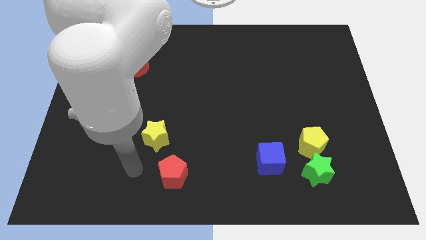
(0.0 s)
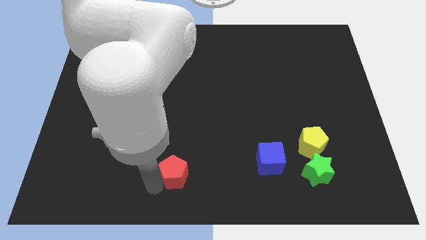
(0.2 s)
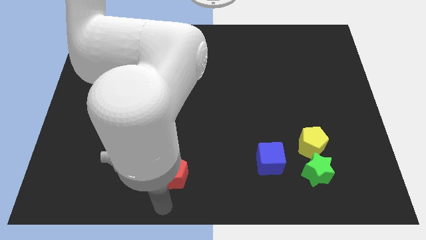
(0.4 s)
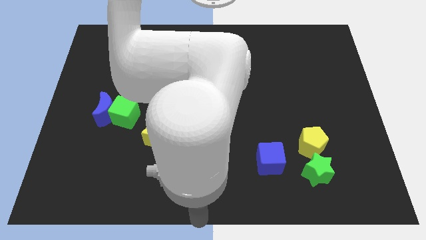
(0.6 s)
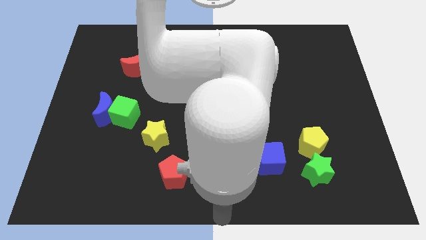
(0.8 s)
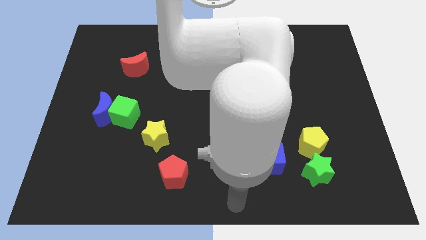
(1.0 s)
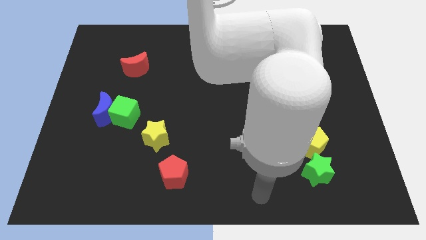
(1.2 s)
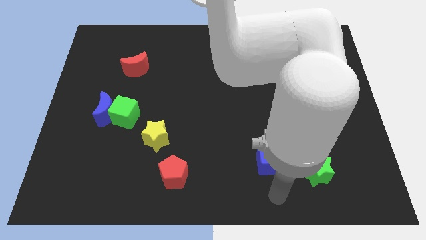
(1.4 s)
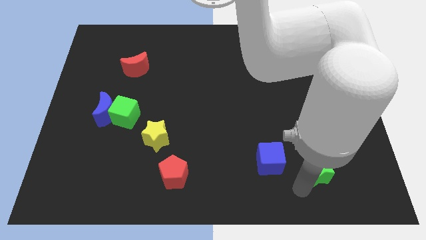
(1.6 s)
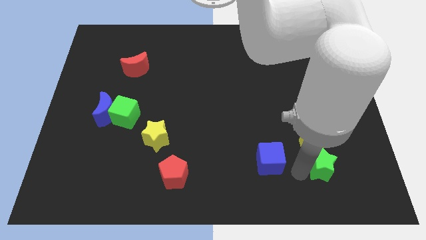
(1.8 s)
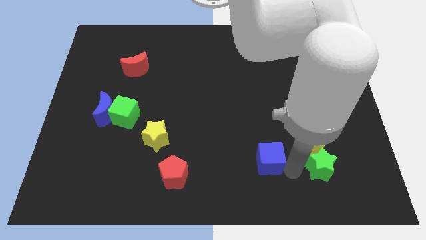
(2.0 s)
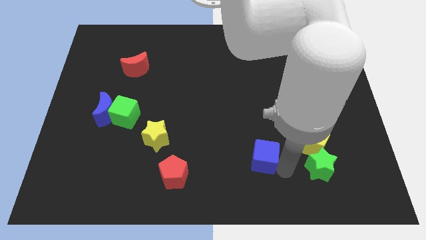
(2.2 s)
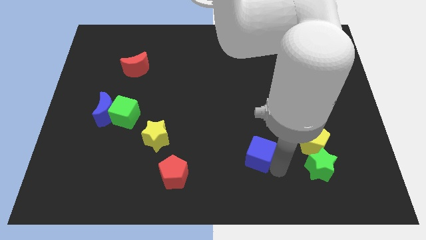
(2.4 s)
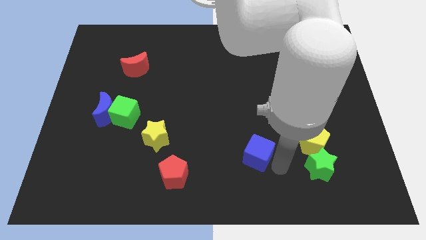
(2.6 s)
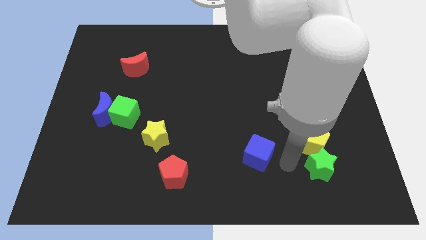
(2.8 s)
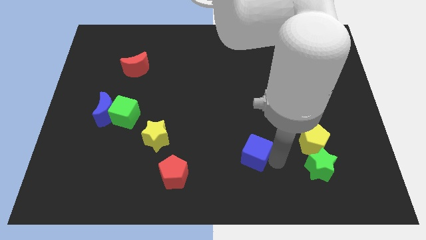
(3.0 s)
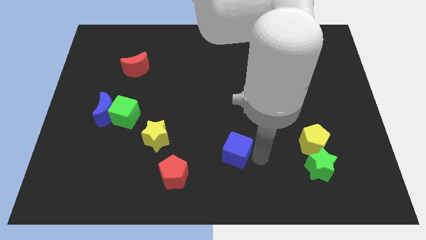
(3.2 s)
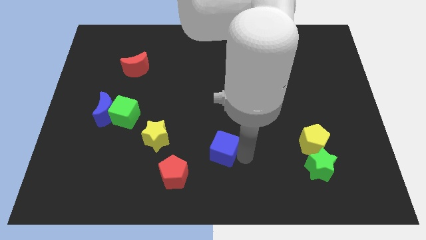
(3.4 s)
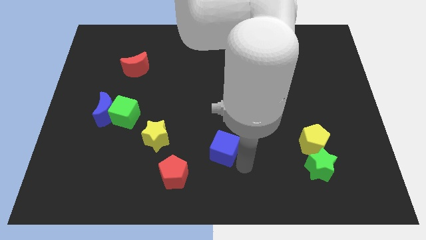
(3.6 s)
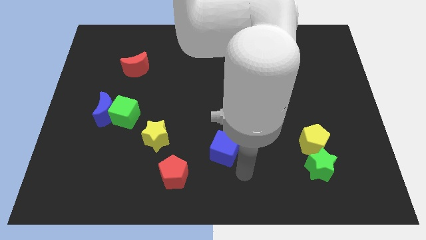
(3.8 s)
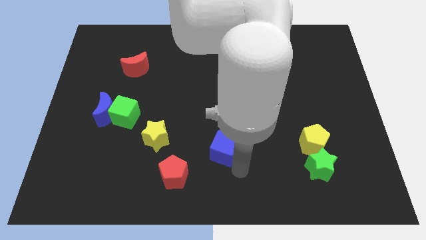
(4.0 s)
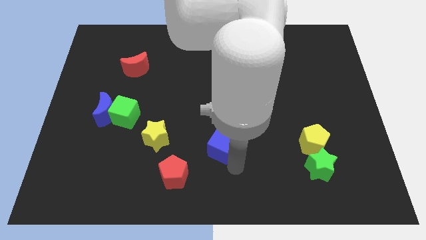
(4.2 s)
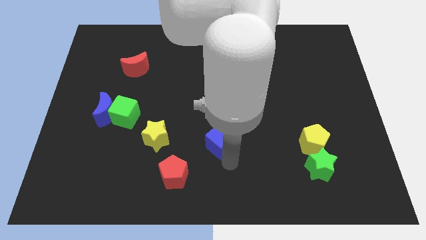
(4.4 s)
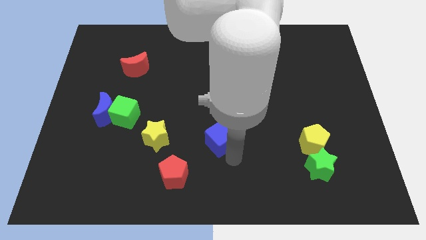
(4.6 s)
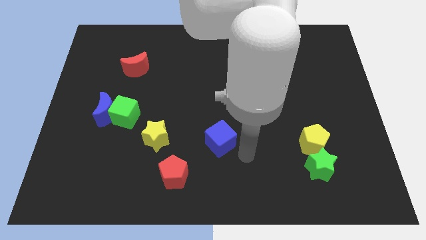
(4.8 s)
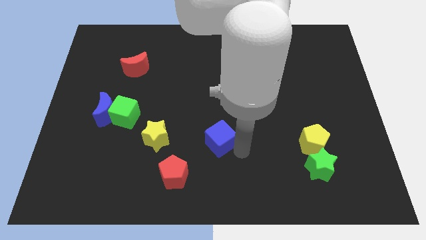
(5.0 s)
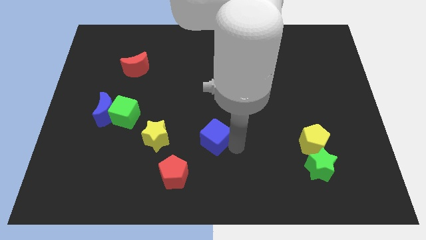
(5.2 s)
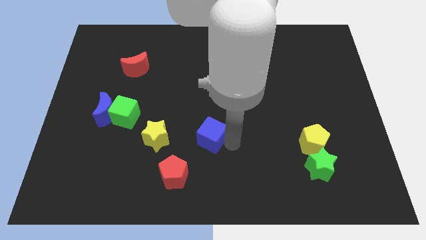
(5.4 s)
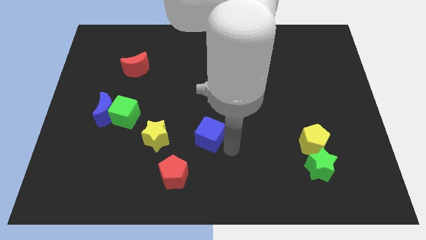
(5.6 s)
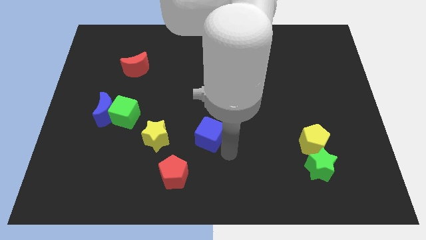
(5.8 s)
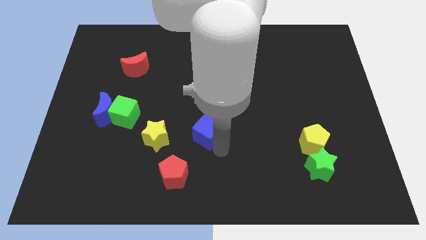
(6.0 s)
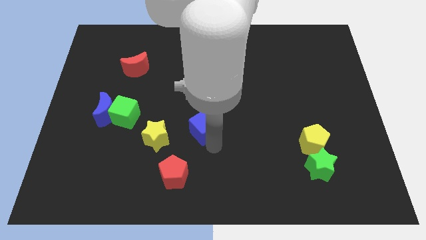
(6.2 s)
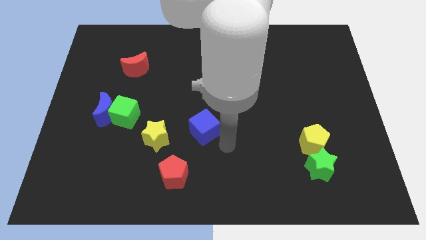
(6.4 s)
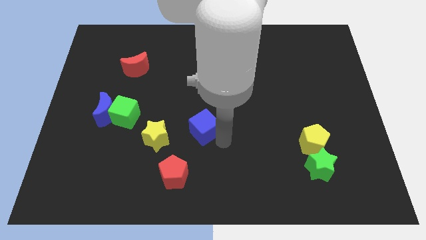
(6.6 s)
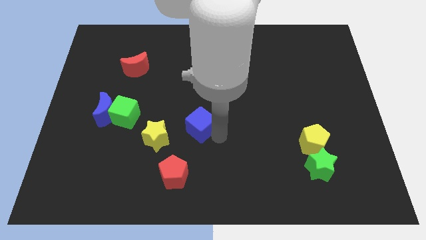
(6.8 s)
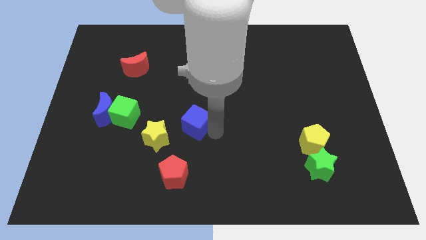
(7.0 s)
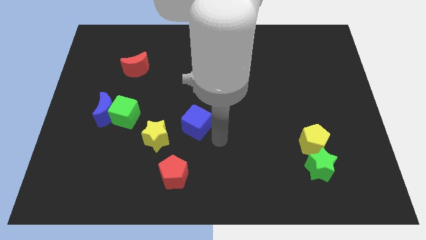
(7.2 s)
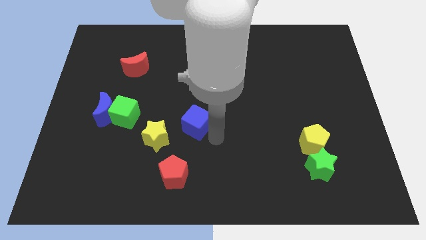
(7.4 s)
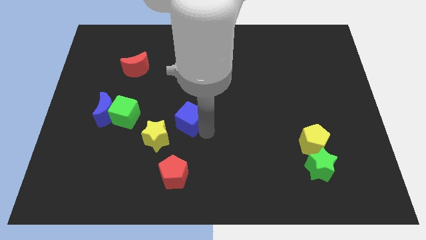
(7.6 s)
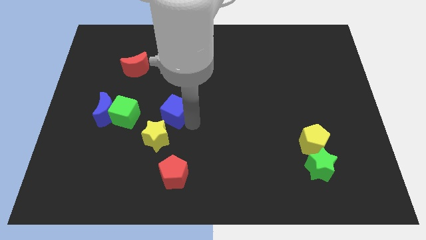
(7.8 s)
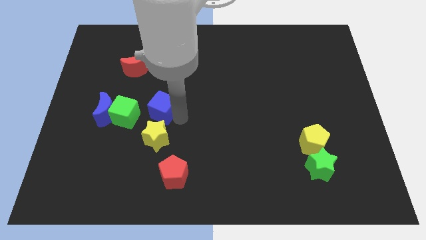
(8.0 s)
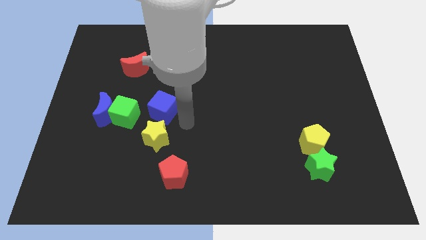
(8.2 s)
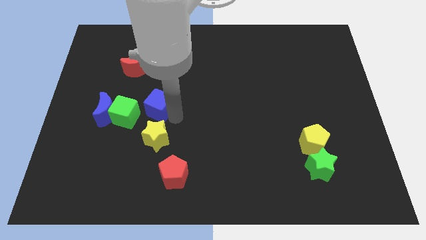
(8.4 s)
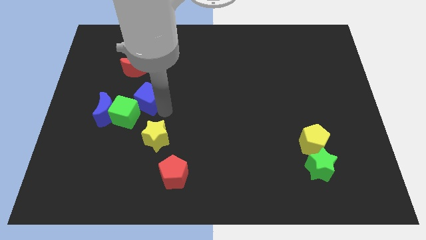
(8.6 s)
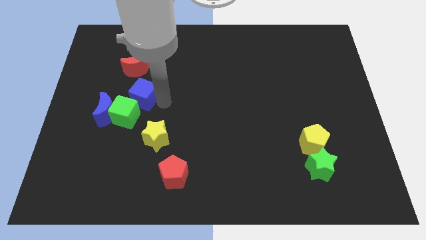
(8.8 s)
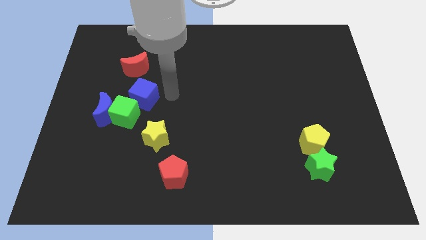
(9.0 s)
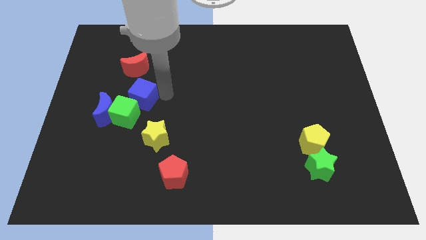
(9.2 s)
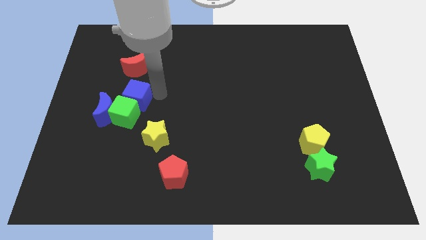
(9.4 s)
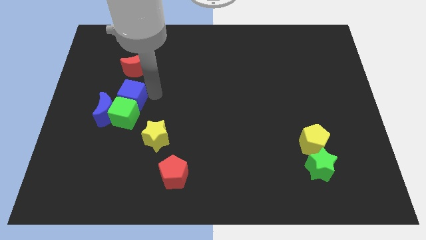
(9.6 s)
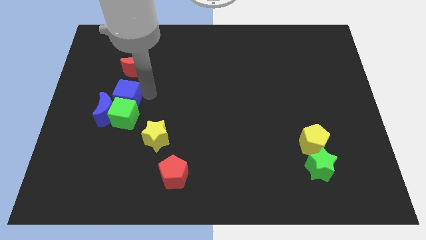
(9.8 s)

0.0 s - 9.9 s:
slide the blue cube towards the blue moon

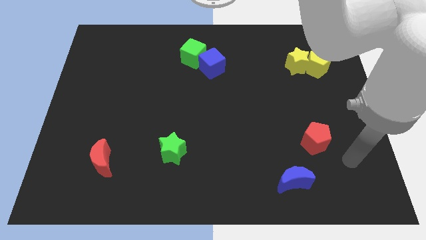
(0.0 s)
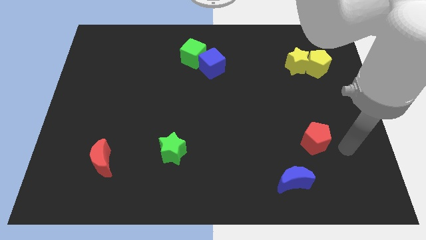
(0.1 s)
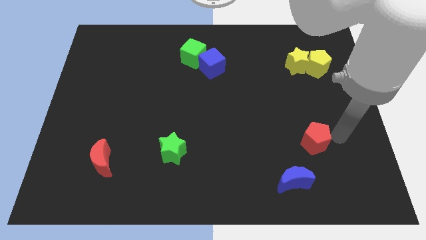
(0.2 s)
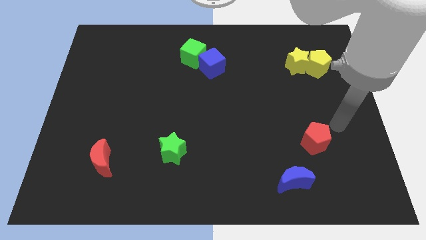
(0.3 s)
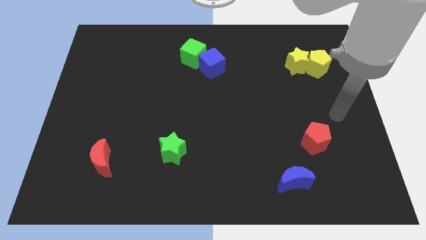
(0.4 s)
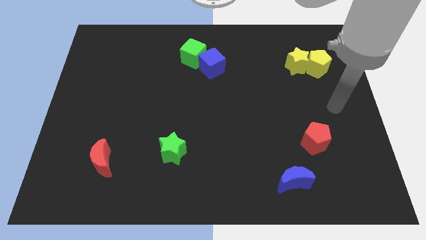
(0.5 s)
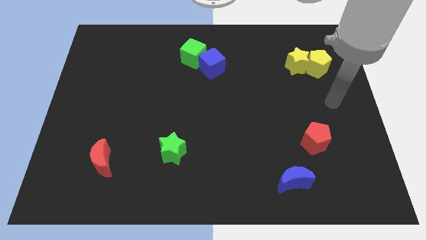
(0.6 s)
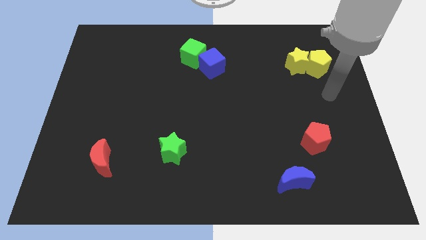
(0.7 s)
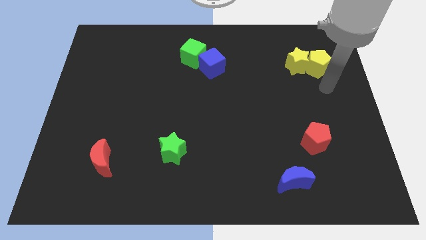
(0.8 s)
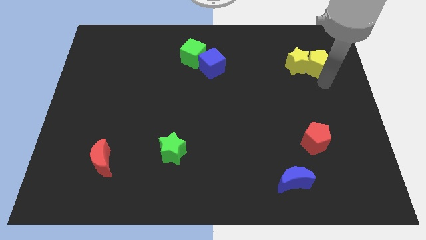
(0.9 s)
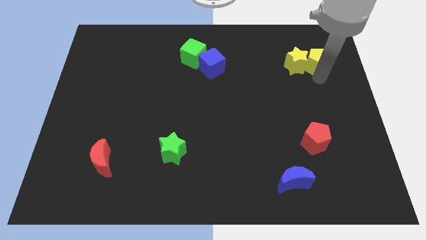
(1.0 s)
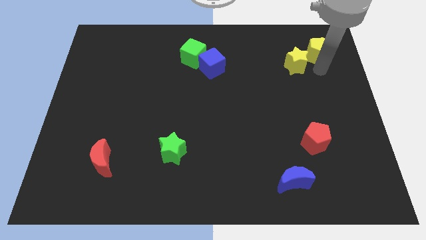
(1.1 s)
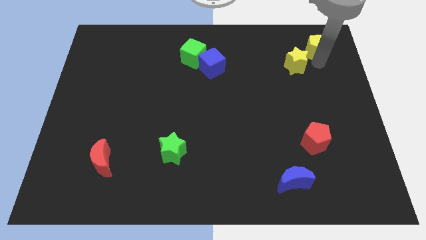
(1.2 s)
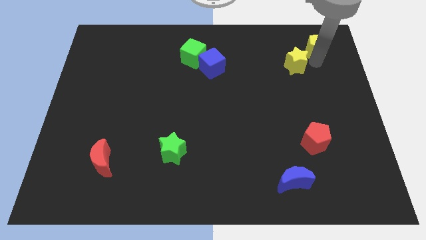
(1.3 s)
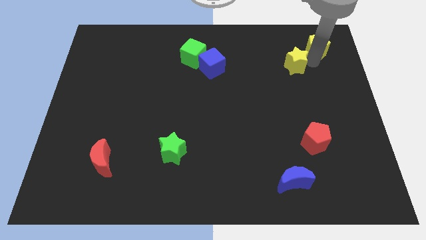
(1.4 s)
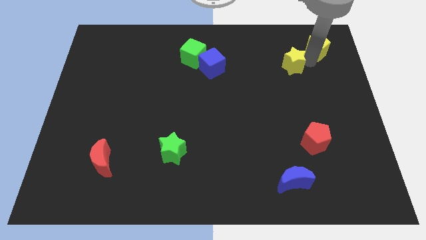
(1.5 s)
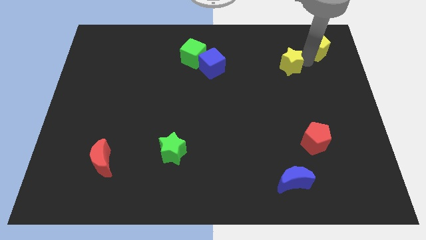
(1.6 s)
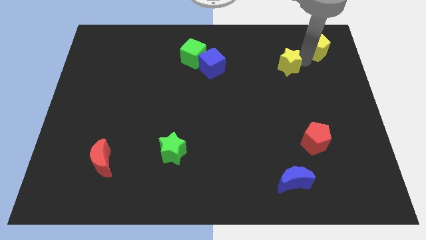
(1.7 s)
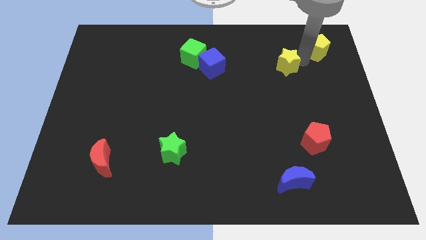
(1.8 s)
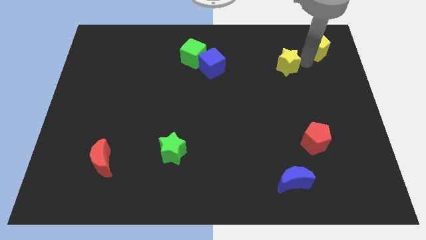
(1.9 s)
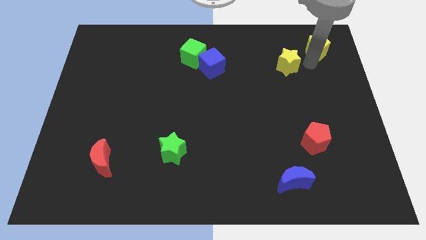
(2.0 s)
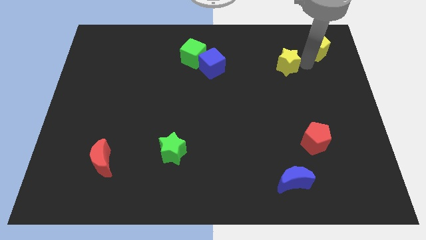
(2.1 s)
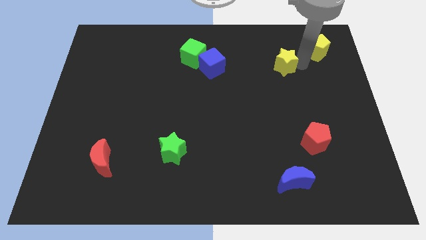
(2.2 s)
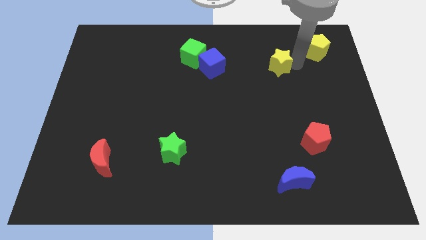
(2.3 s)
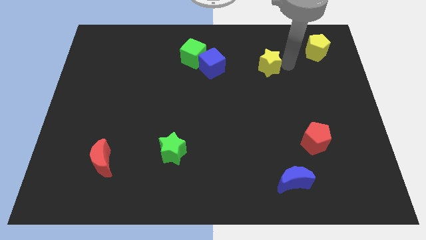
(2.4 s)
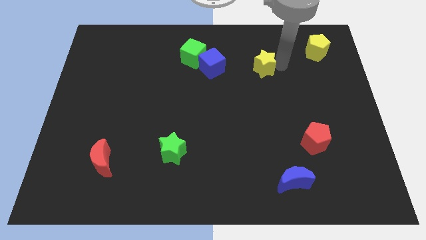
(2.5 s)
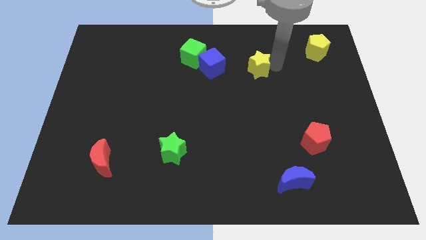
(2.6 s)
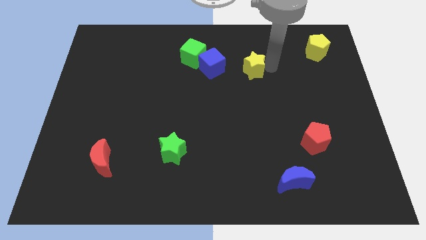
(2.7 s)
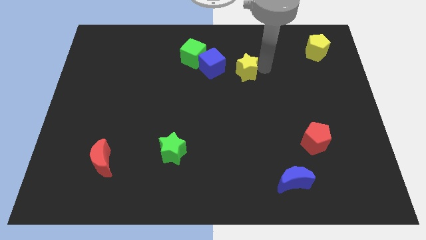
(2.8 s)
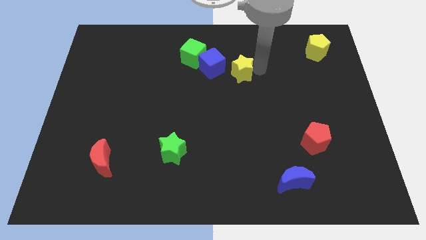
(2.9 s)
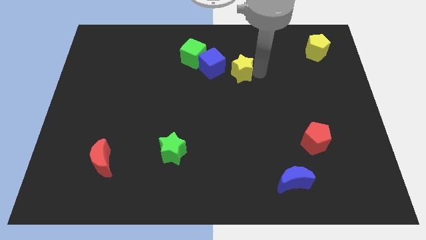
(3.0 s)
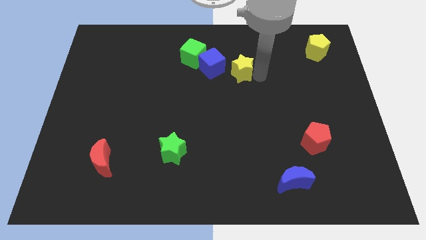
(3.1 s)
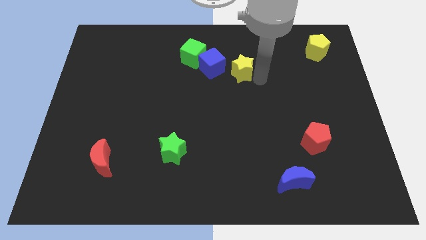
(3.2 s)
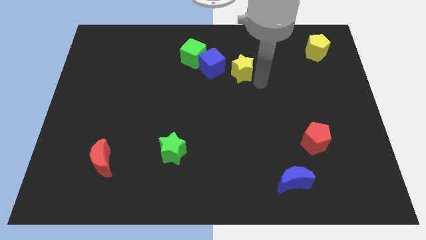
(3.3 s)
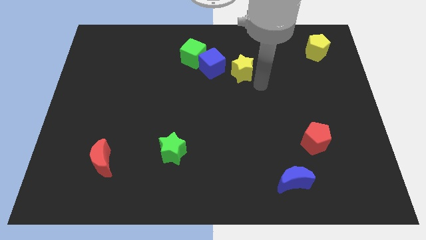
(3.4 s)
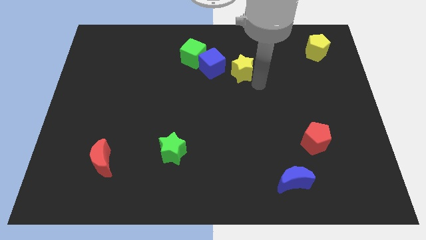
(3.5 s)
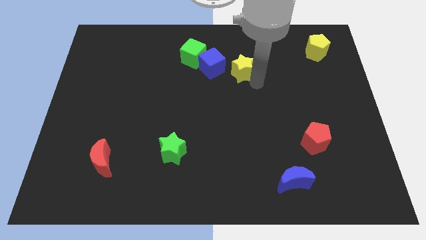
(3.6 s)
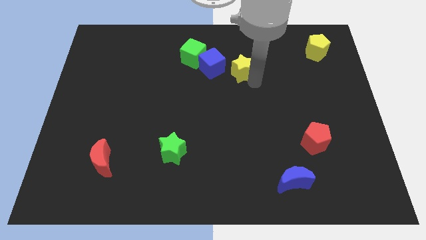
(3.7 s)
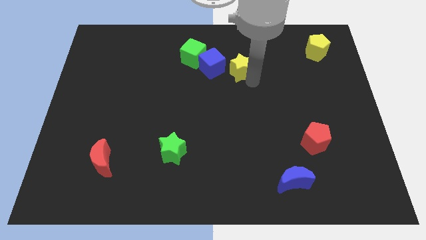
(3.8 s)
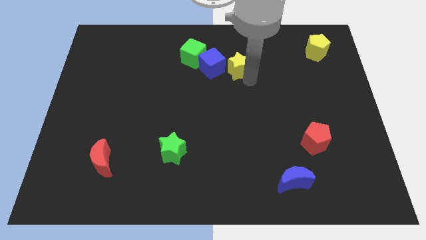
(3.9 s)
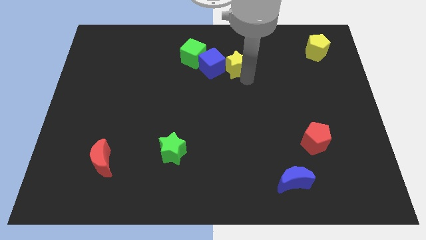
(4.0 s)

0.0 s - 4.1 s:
put the yellow star to the blue cube
